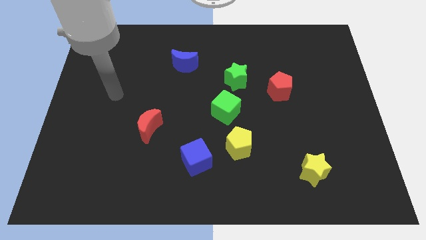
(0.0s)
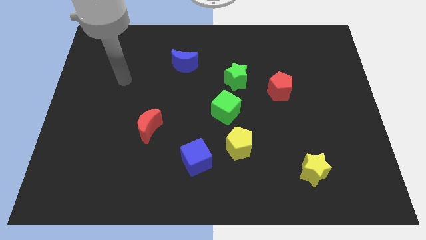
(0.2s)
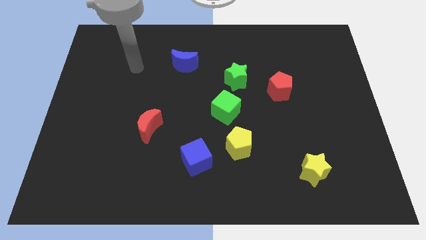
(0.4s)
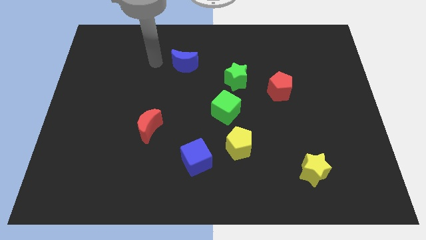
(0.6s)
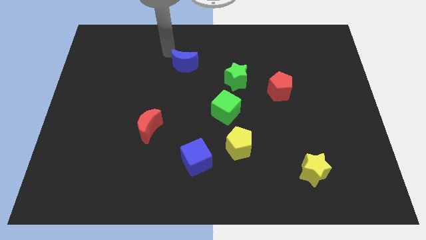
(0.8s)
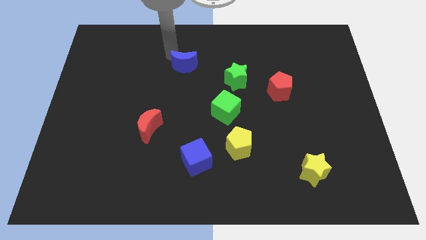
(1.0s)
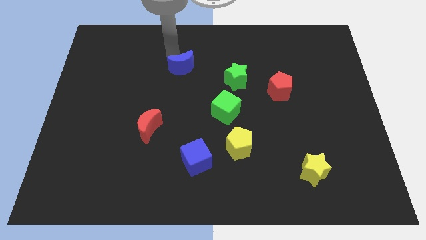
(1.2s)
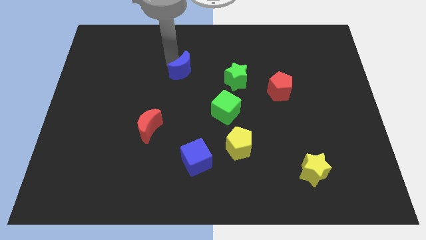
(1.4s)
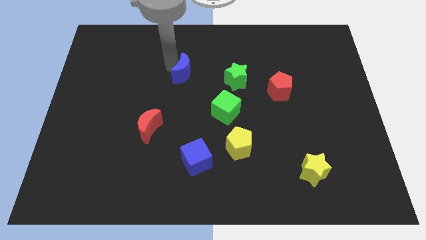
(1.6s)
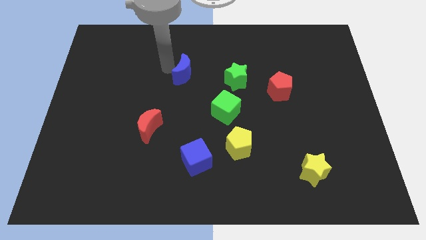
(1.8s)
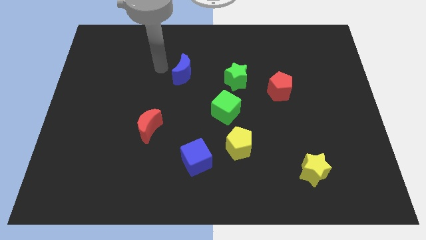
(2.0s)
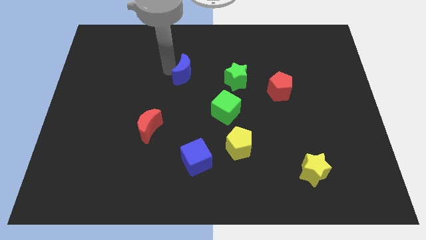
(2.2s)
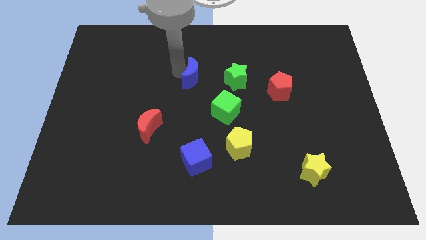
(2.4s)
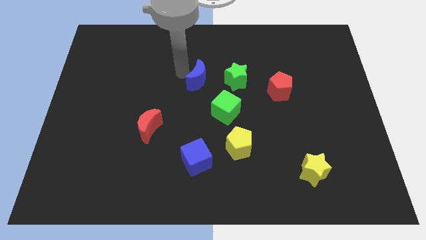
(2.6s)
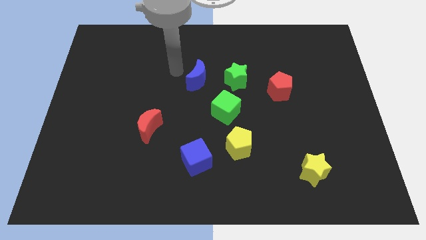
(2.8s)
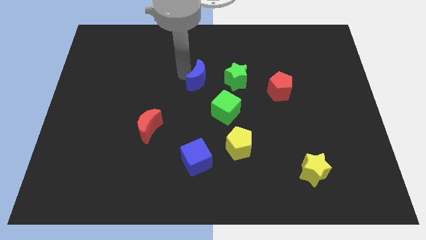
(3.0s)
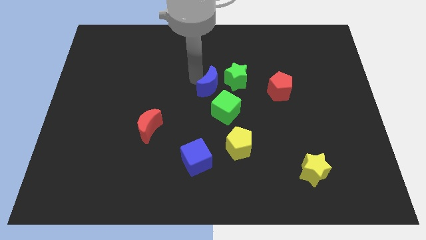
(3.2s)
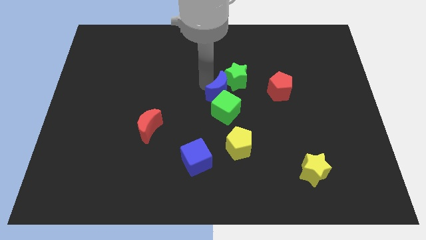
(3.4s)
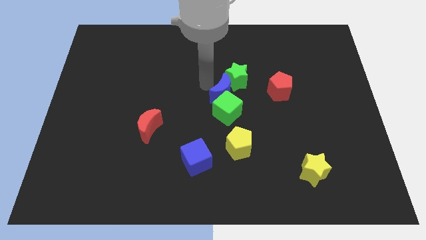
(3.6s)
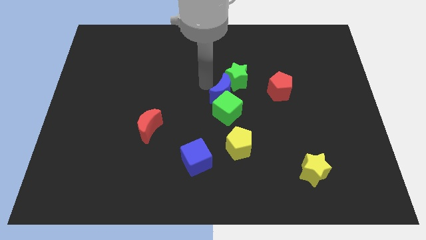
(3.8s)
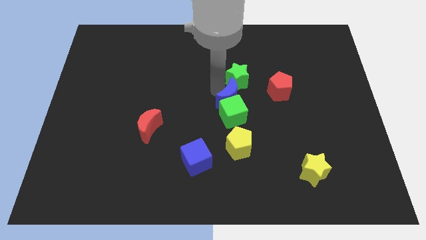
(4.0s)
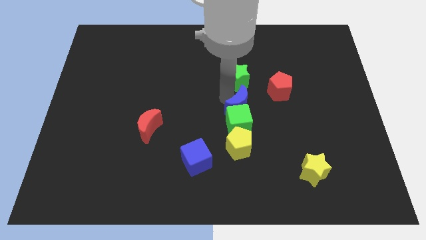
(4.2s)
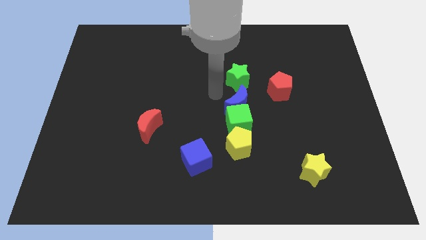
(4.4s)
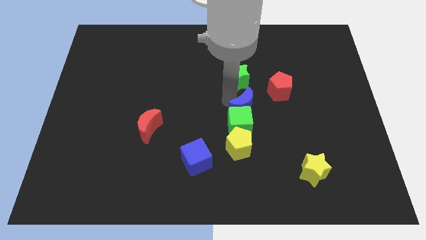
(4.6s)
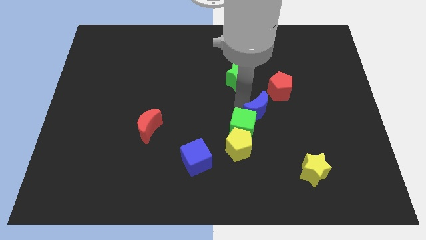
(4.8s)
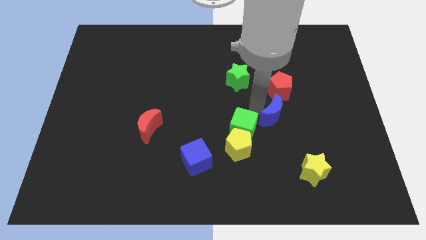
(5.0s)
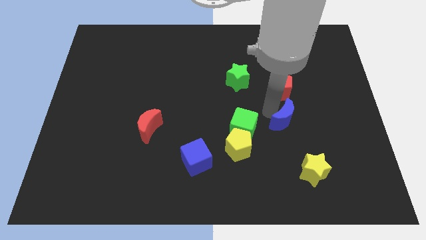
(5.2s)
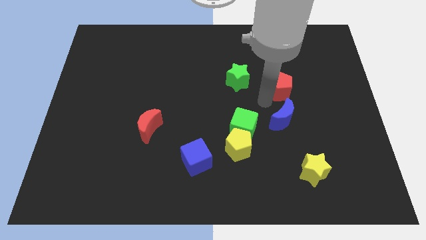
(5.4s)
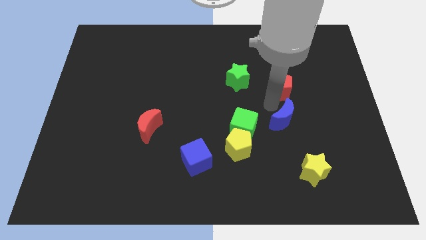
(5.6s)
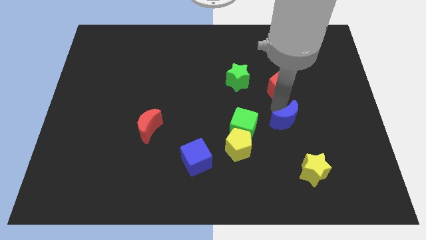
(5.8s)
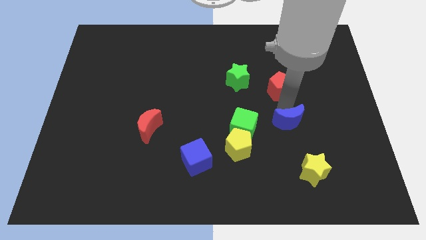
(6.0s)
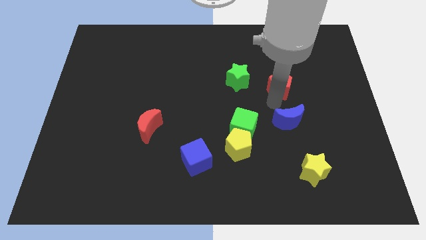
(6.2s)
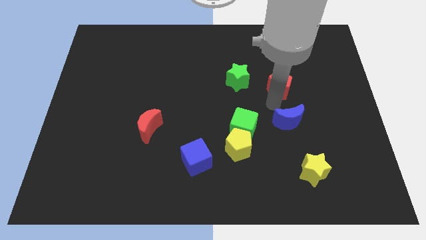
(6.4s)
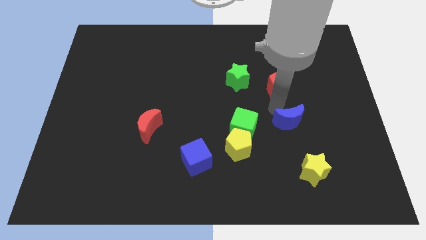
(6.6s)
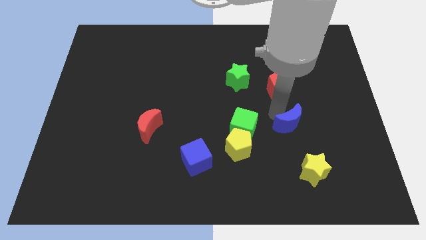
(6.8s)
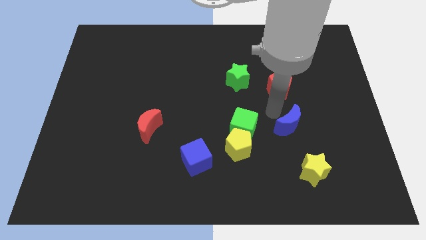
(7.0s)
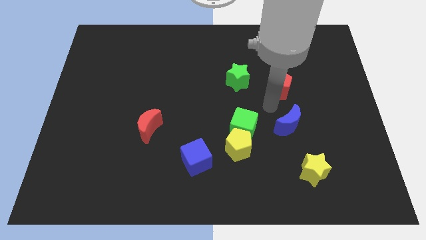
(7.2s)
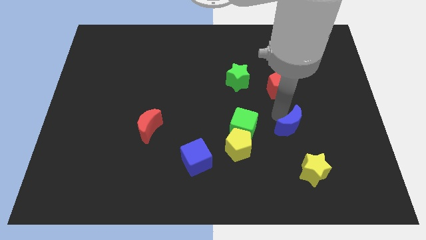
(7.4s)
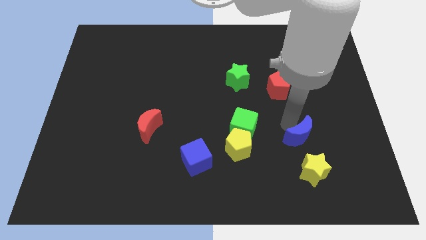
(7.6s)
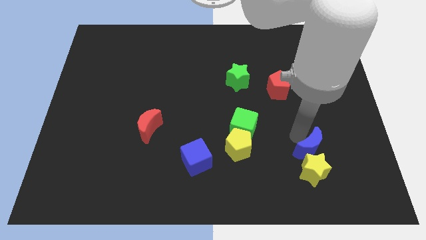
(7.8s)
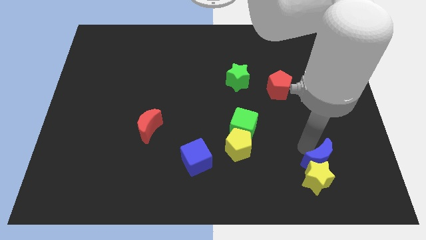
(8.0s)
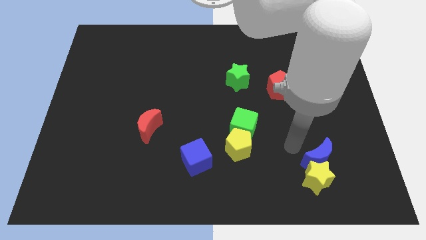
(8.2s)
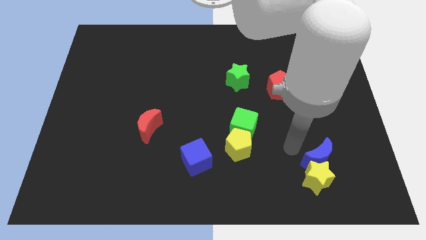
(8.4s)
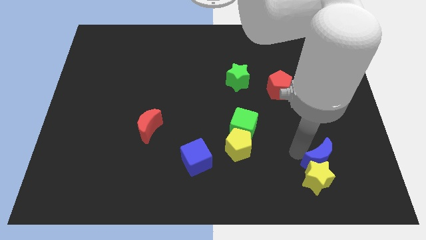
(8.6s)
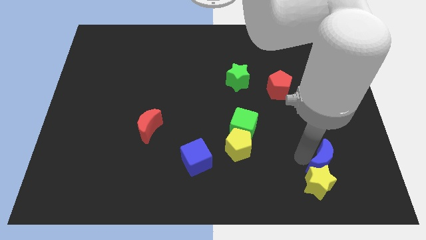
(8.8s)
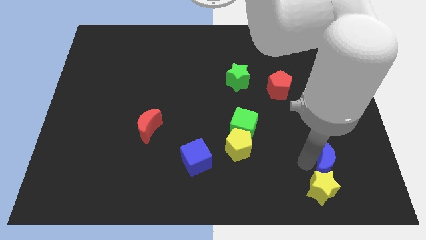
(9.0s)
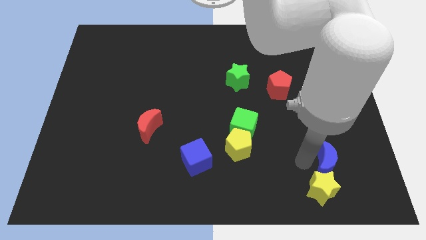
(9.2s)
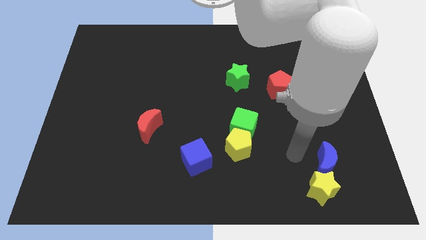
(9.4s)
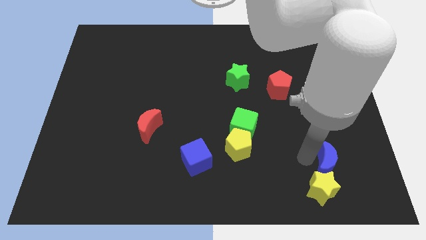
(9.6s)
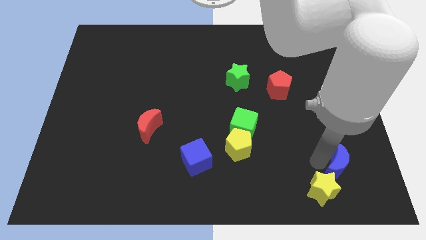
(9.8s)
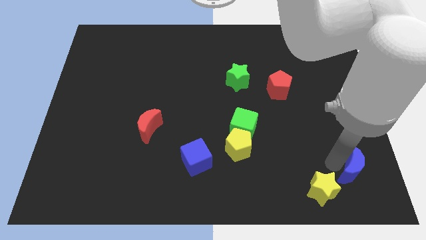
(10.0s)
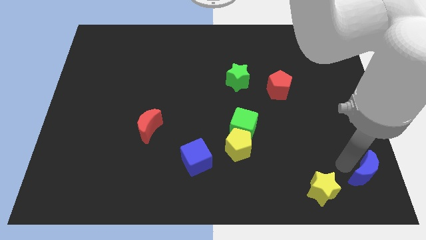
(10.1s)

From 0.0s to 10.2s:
put the blue moon to the lower right corner

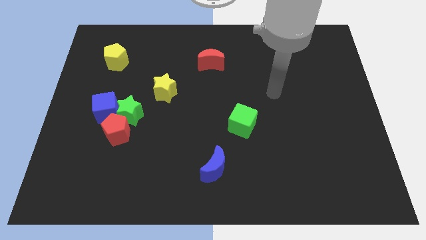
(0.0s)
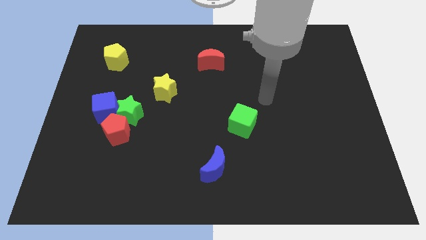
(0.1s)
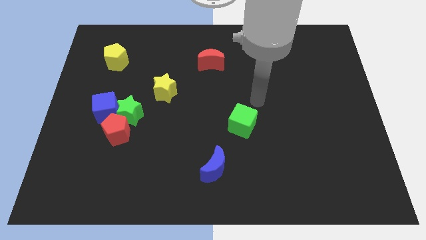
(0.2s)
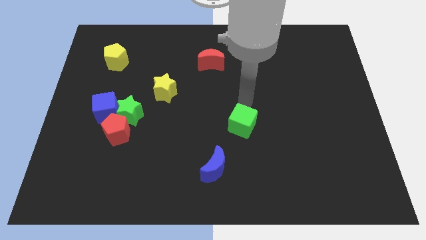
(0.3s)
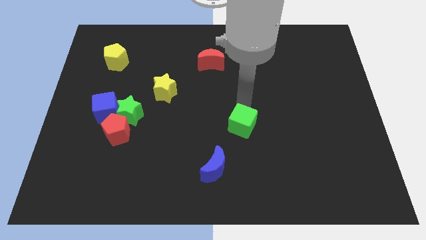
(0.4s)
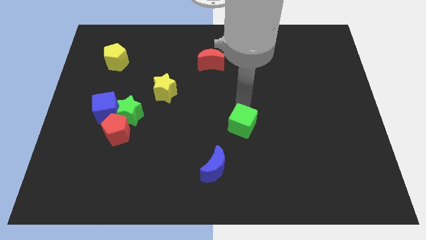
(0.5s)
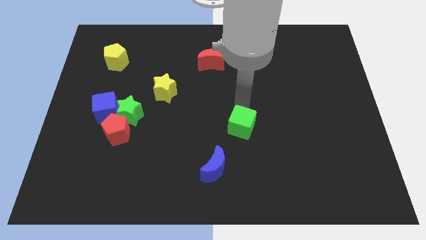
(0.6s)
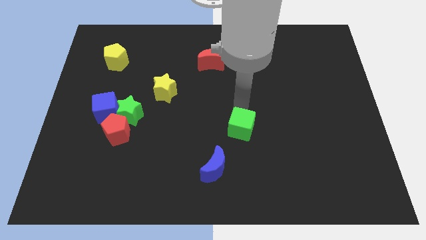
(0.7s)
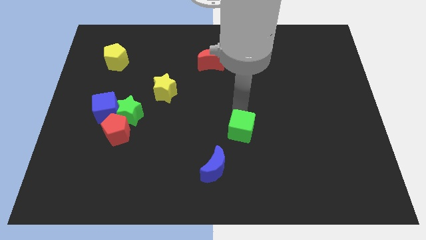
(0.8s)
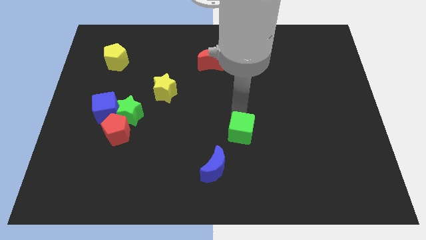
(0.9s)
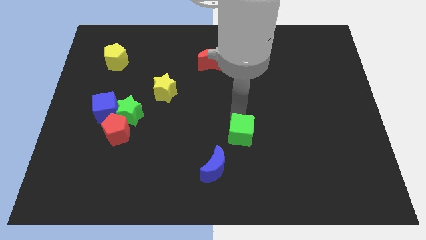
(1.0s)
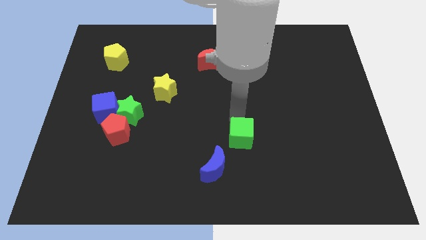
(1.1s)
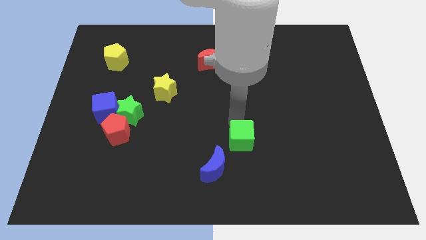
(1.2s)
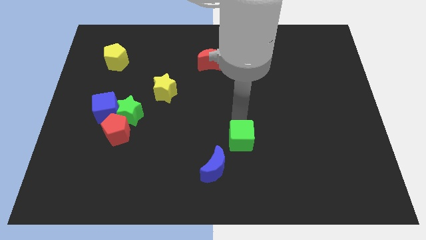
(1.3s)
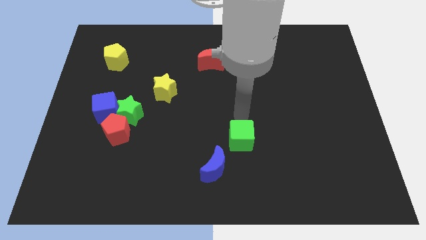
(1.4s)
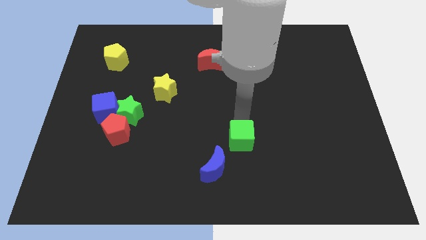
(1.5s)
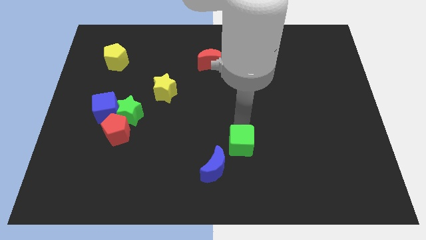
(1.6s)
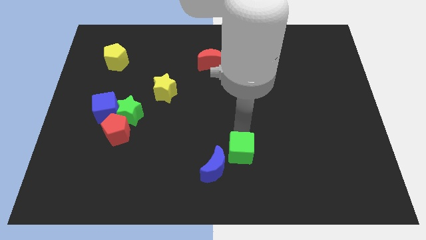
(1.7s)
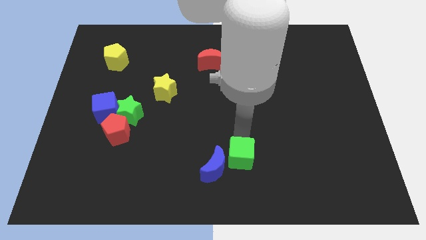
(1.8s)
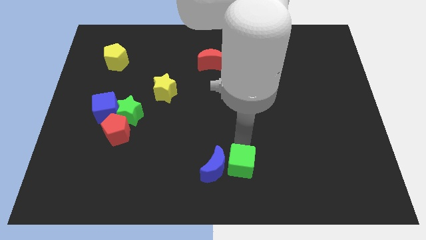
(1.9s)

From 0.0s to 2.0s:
move the green cube to the bottom
